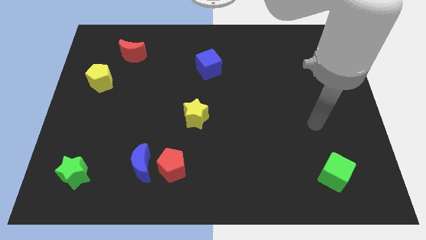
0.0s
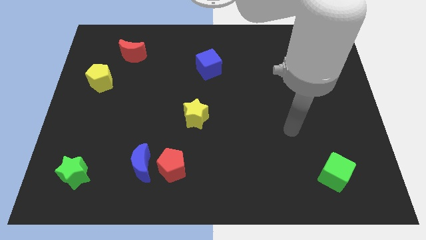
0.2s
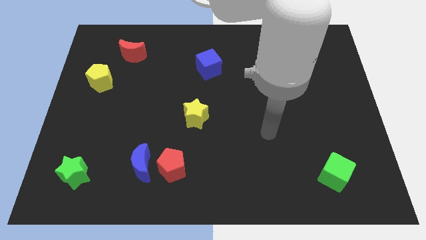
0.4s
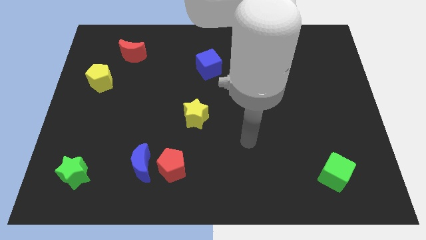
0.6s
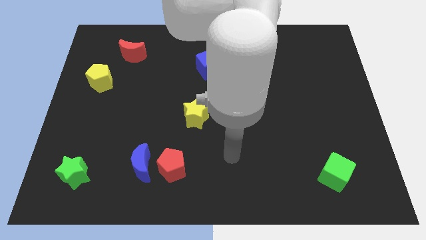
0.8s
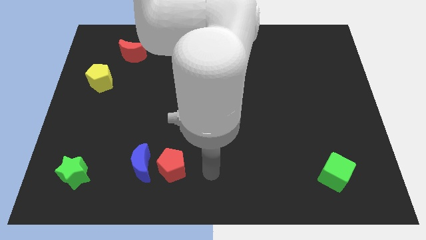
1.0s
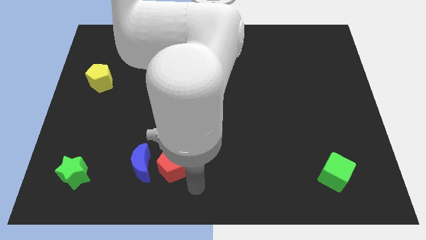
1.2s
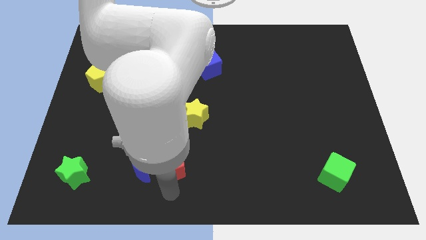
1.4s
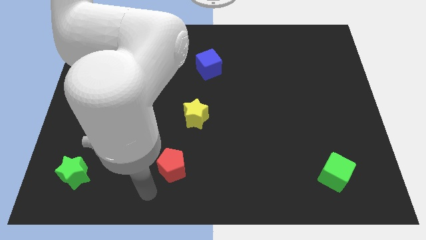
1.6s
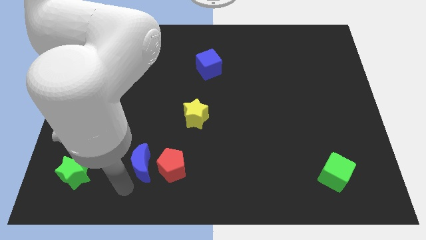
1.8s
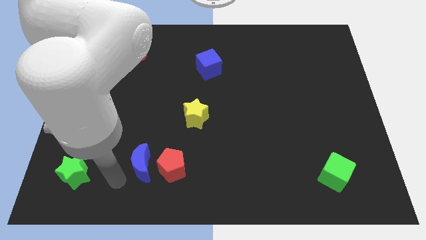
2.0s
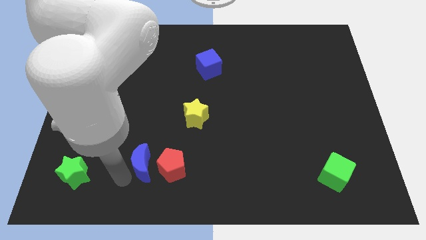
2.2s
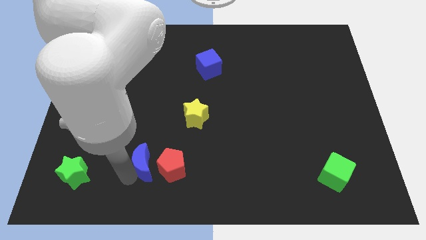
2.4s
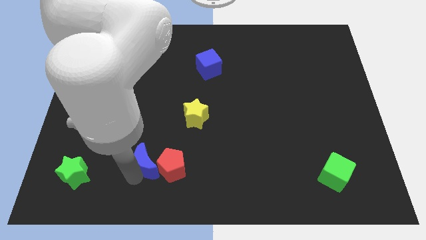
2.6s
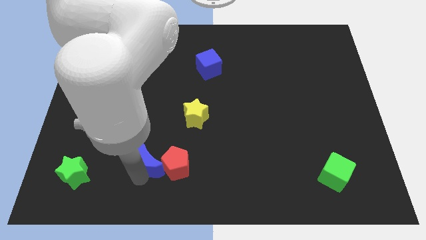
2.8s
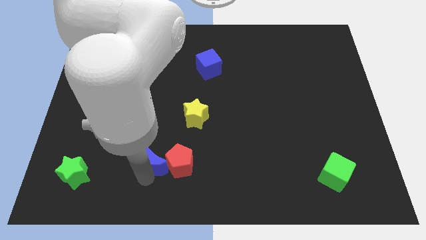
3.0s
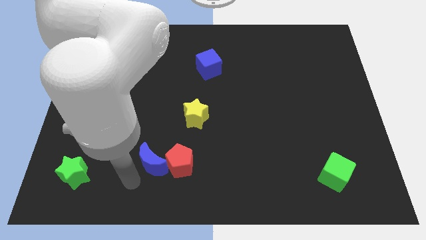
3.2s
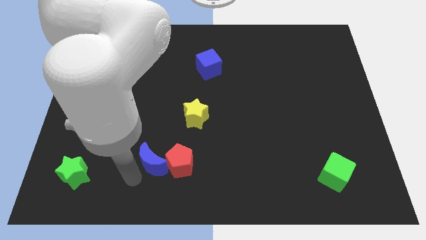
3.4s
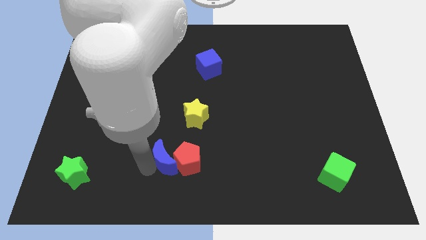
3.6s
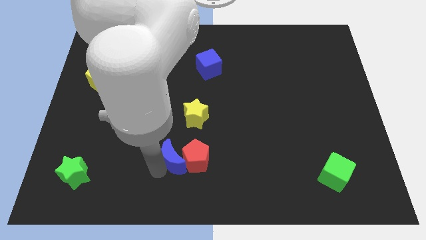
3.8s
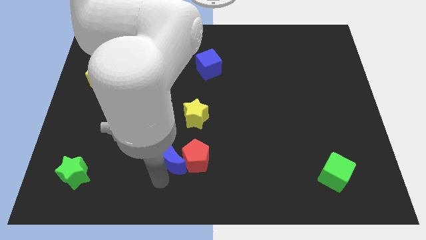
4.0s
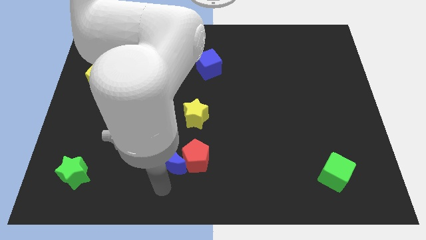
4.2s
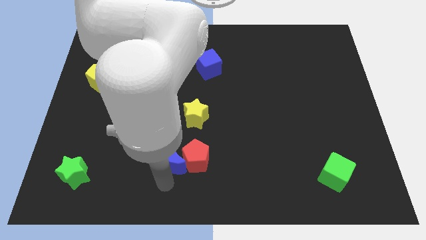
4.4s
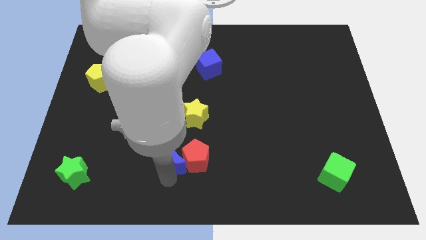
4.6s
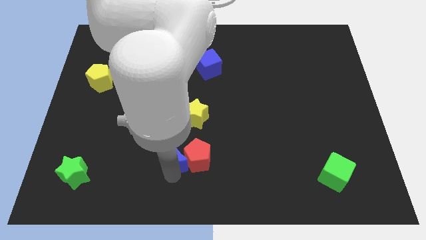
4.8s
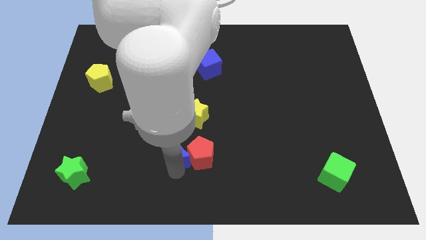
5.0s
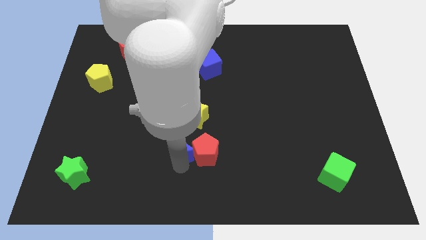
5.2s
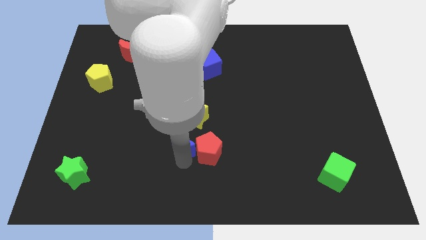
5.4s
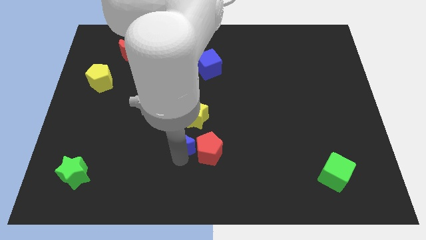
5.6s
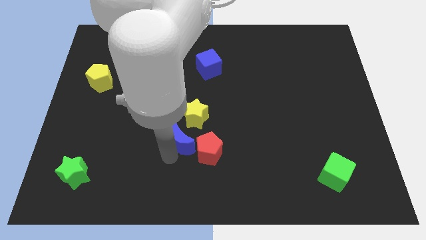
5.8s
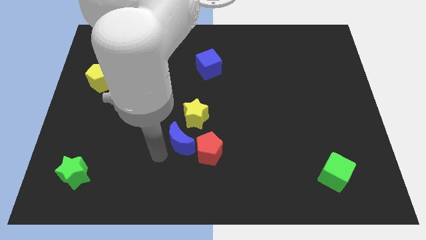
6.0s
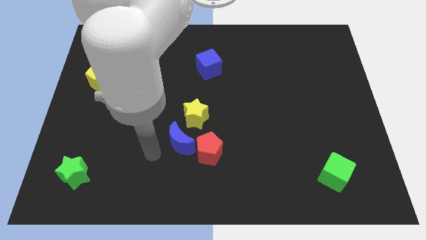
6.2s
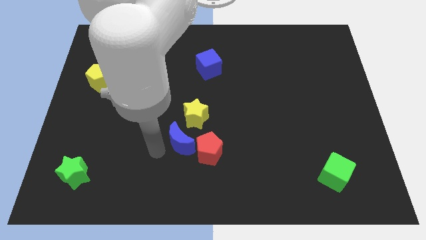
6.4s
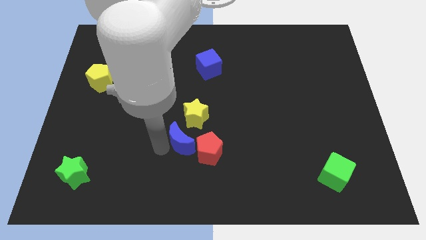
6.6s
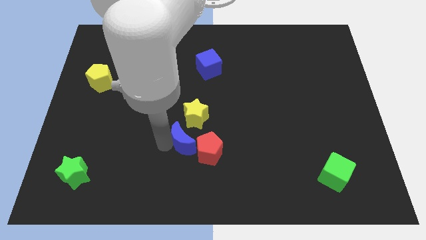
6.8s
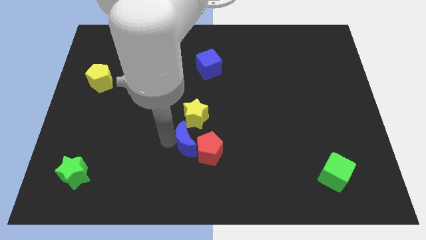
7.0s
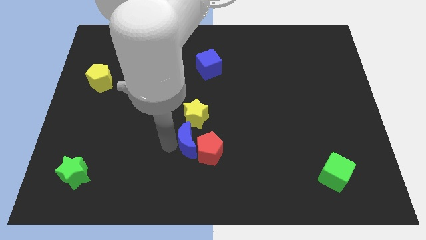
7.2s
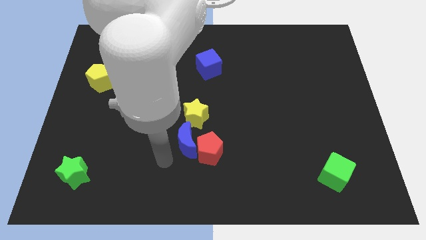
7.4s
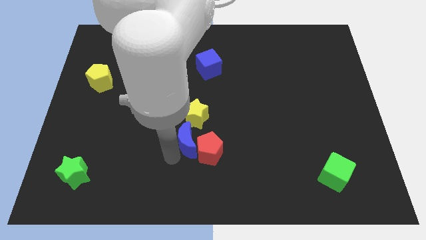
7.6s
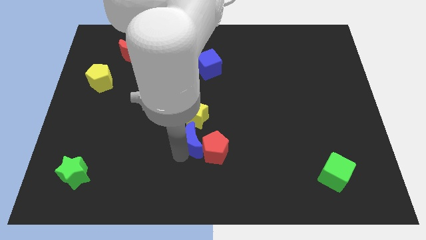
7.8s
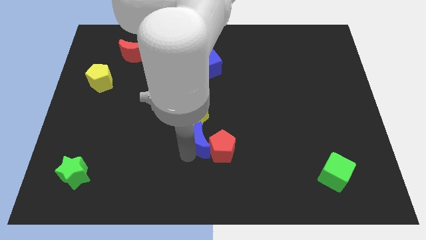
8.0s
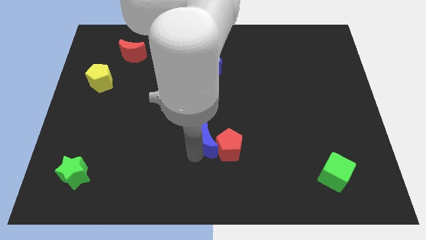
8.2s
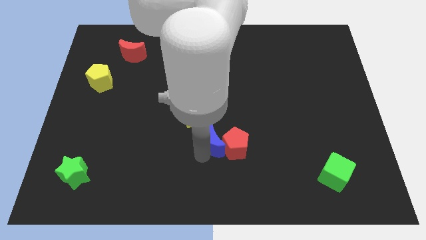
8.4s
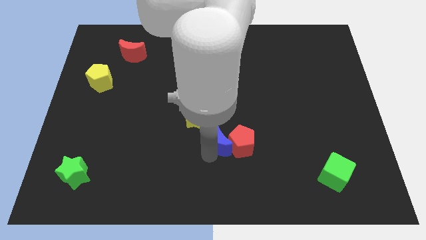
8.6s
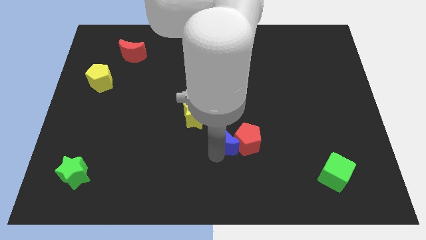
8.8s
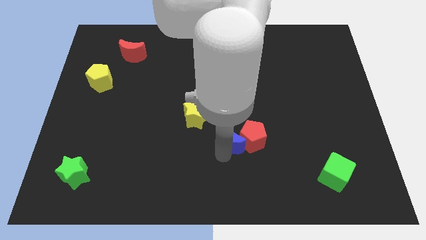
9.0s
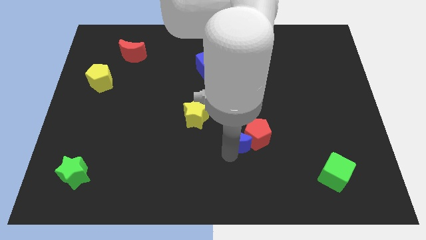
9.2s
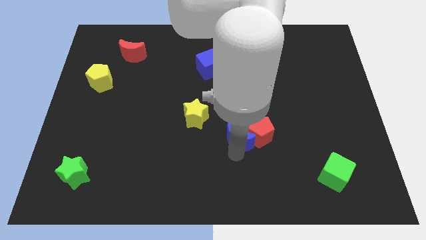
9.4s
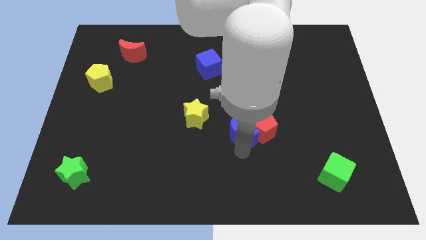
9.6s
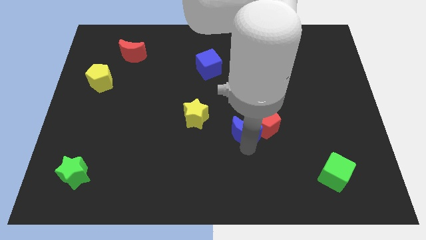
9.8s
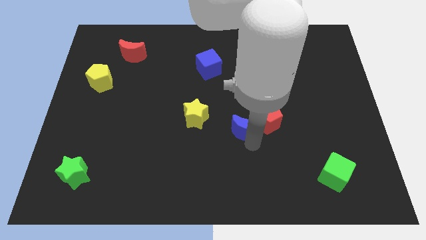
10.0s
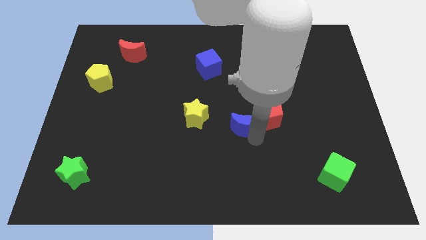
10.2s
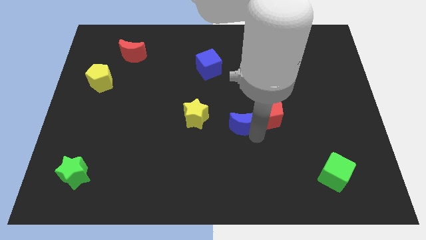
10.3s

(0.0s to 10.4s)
push the blue moon upwards and to the right diagonally

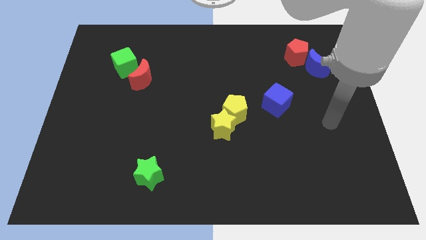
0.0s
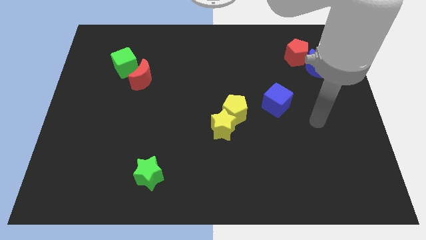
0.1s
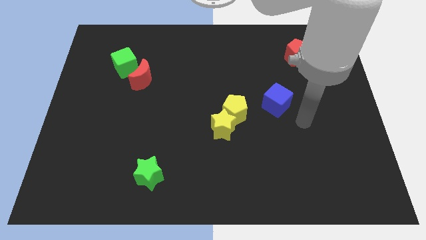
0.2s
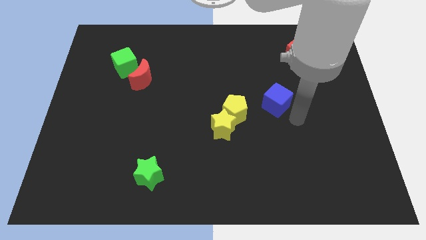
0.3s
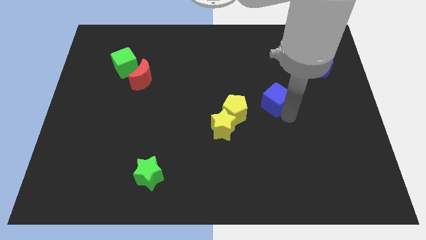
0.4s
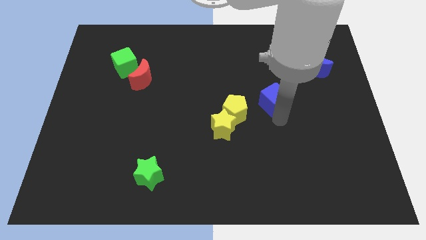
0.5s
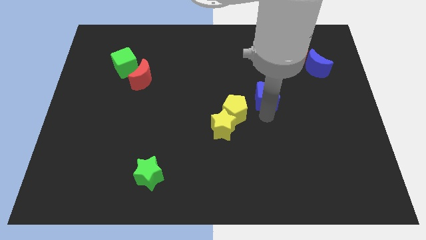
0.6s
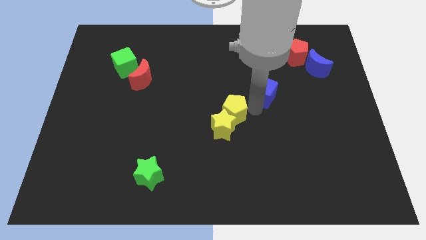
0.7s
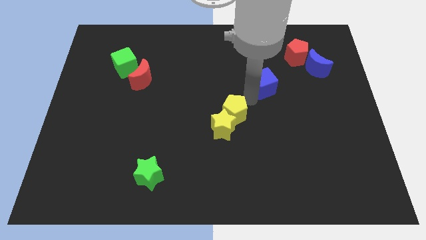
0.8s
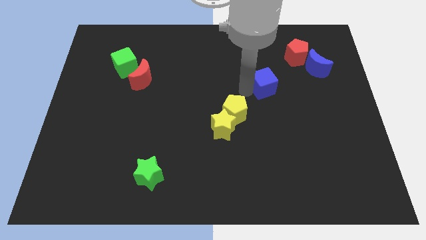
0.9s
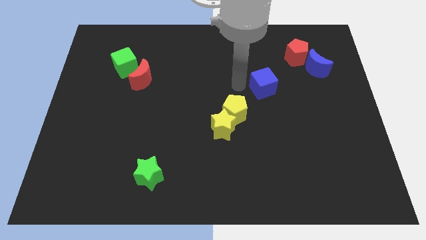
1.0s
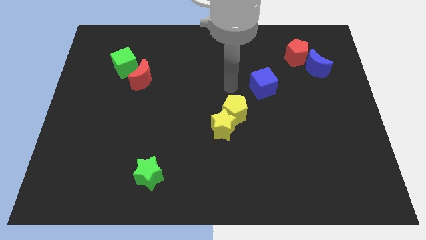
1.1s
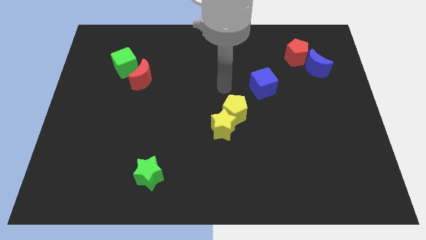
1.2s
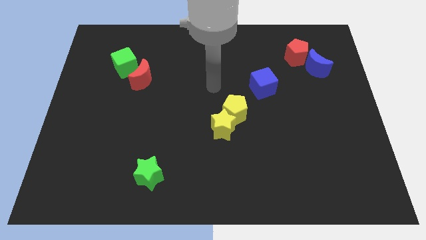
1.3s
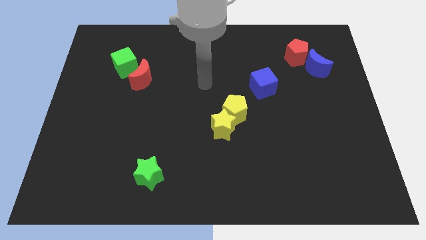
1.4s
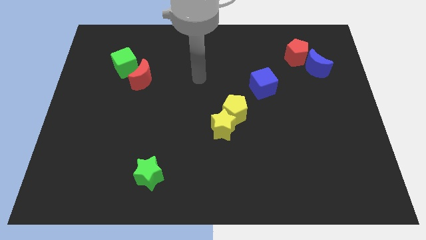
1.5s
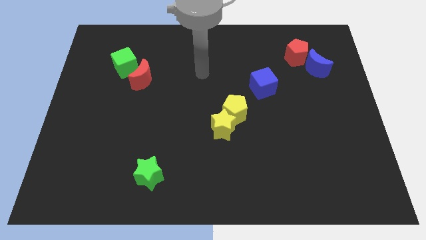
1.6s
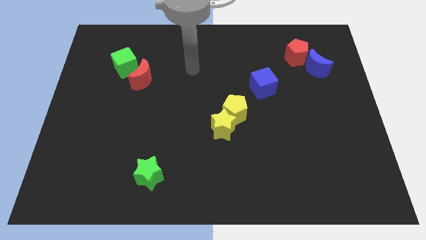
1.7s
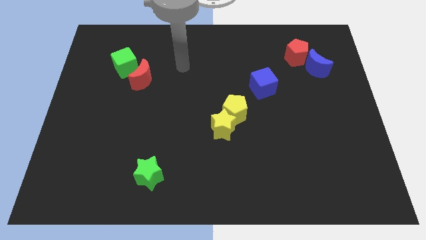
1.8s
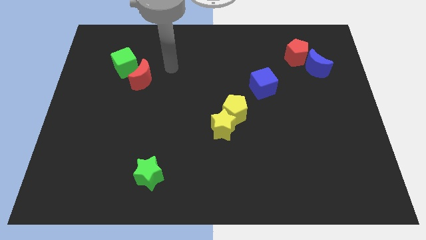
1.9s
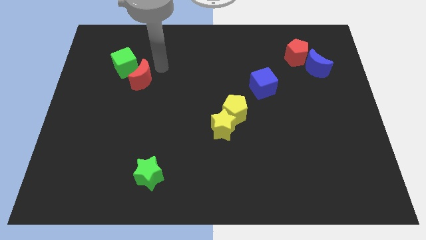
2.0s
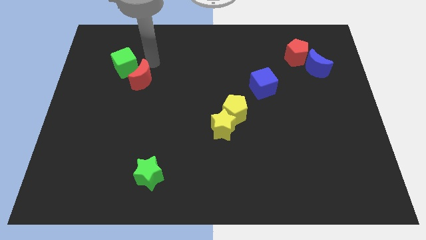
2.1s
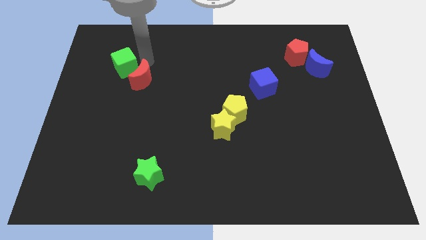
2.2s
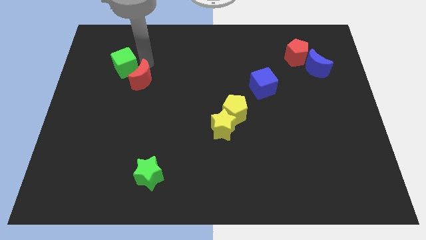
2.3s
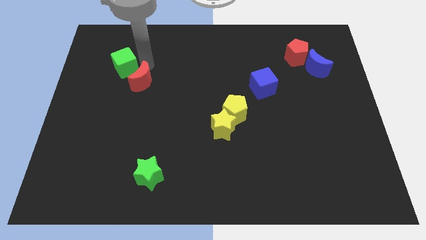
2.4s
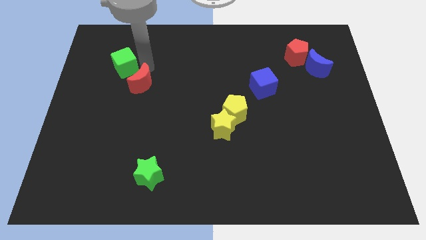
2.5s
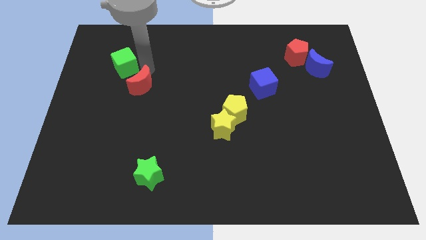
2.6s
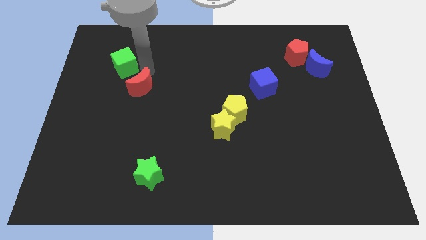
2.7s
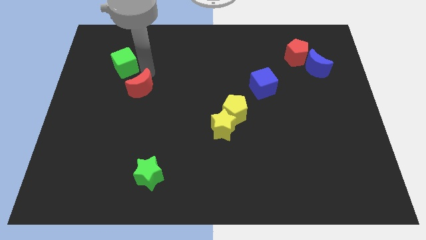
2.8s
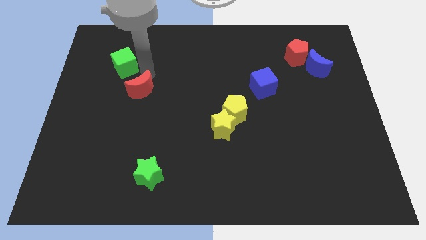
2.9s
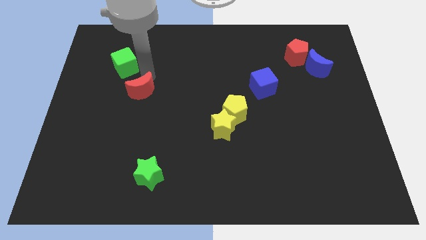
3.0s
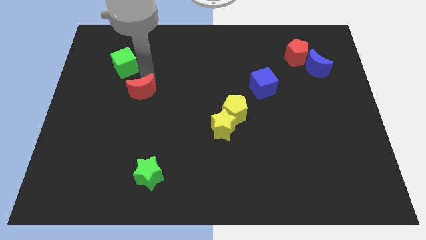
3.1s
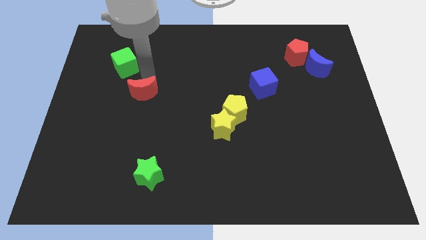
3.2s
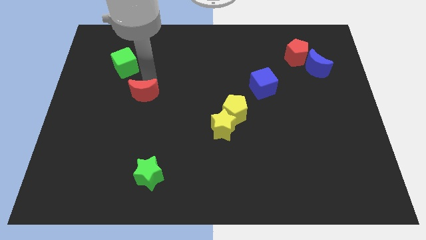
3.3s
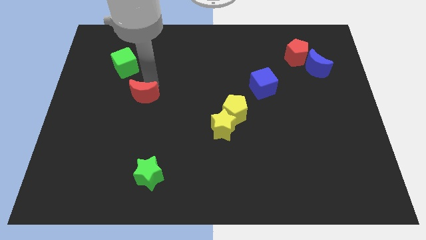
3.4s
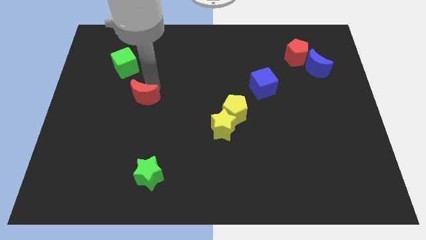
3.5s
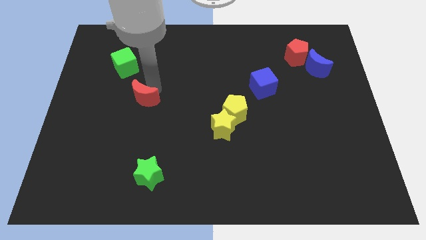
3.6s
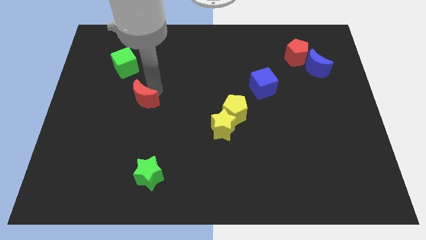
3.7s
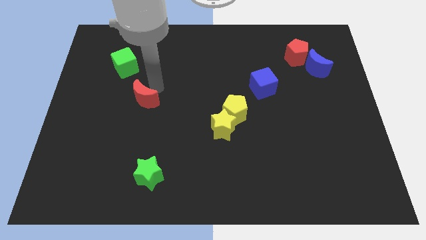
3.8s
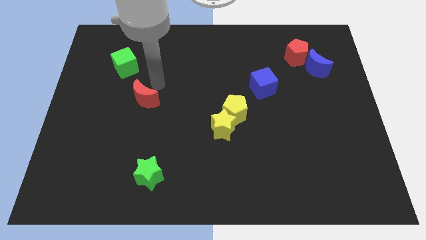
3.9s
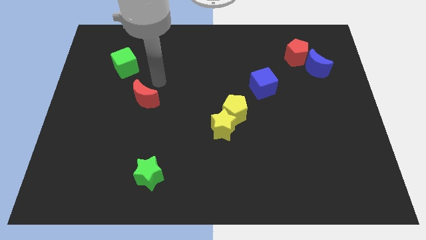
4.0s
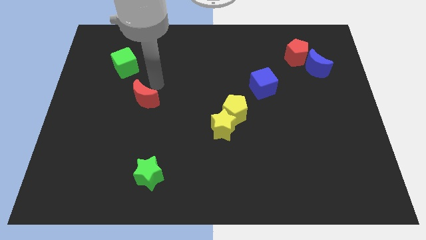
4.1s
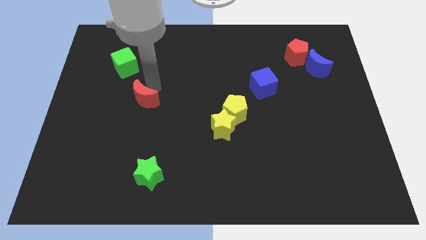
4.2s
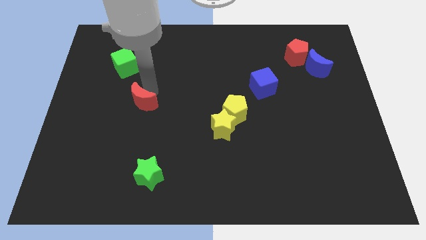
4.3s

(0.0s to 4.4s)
slightly push the red moon downwards
